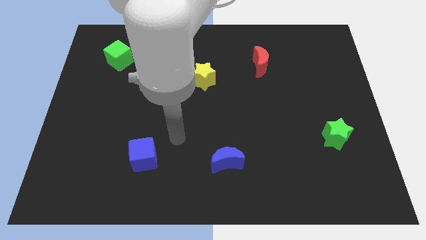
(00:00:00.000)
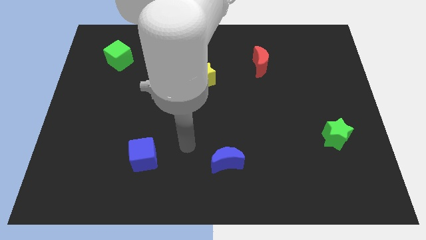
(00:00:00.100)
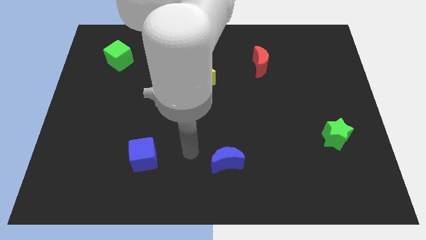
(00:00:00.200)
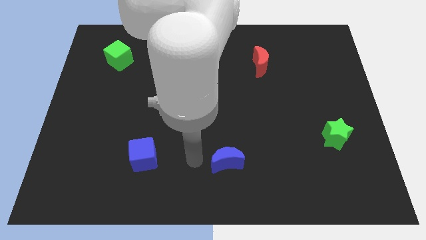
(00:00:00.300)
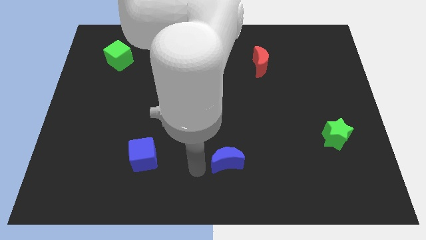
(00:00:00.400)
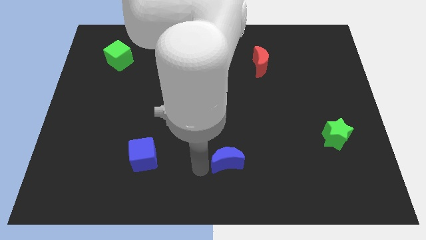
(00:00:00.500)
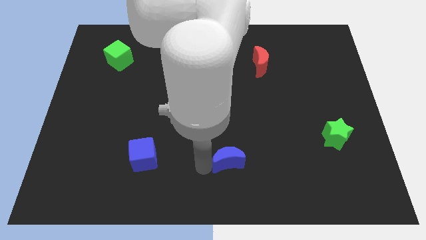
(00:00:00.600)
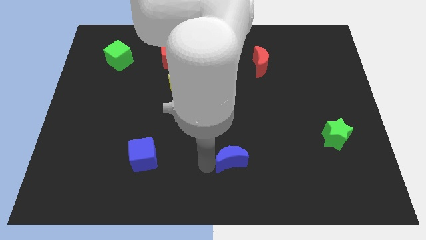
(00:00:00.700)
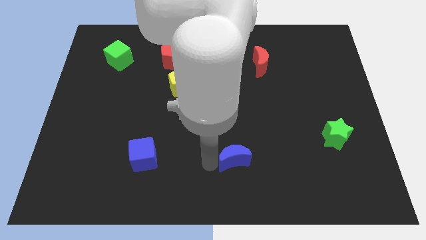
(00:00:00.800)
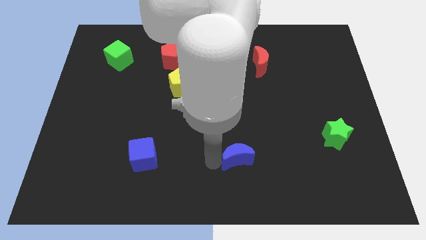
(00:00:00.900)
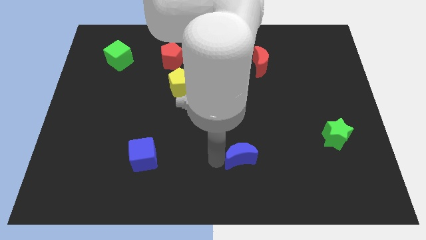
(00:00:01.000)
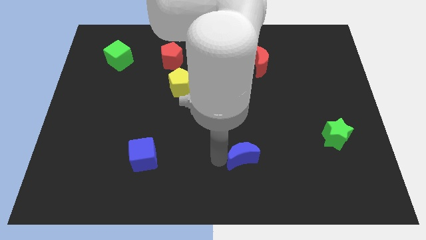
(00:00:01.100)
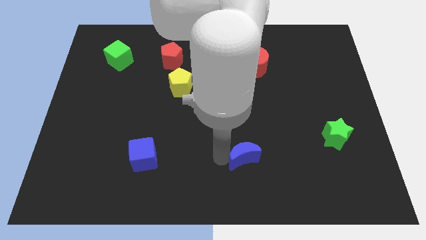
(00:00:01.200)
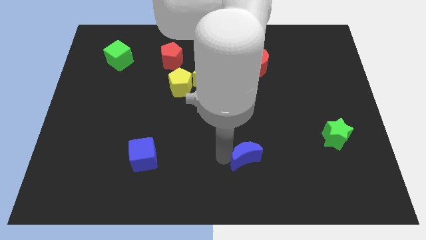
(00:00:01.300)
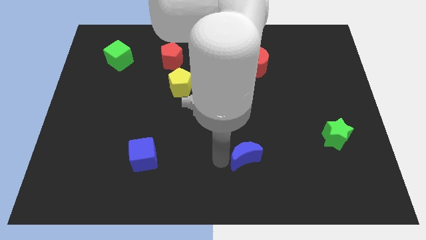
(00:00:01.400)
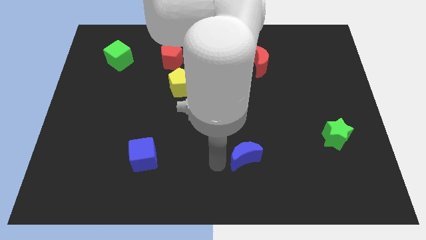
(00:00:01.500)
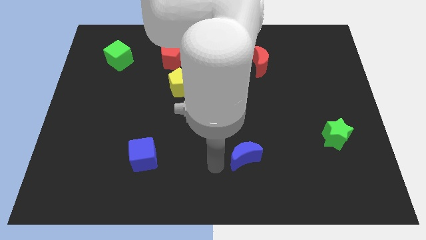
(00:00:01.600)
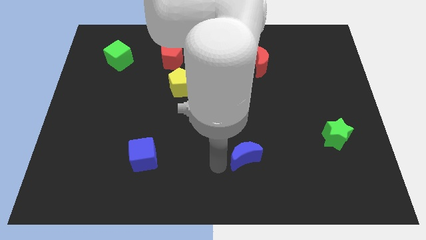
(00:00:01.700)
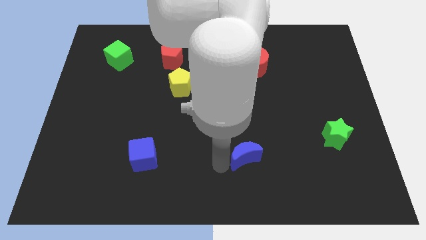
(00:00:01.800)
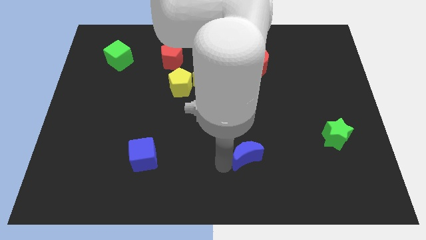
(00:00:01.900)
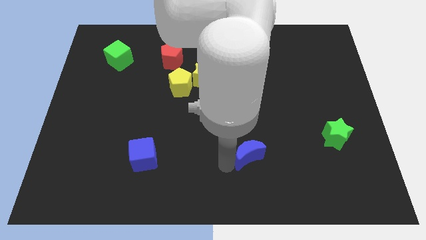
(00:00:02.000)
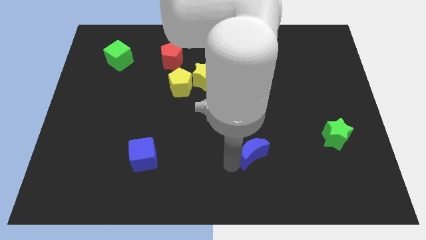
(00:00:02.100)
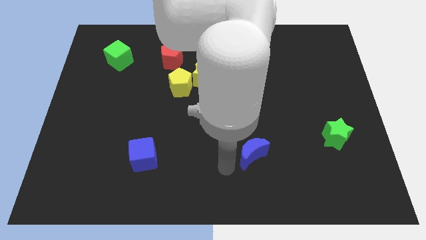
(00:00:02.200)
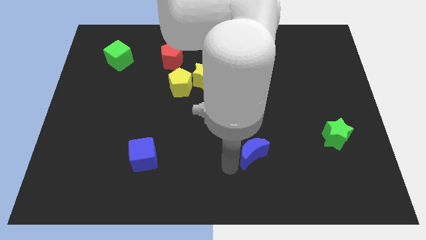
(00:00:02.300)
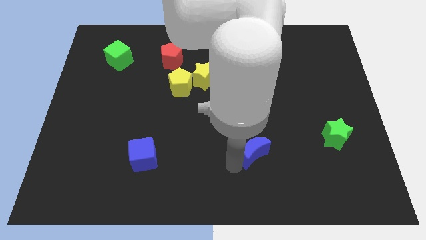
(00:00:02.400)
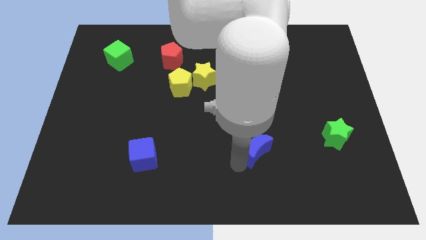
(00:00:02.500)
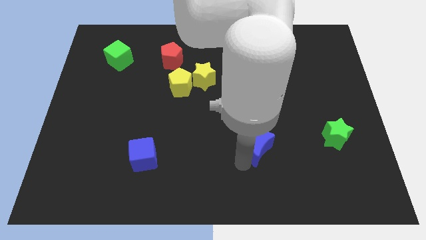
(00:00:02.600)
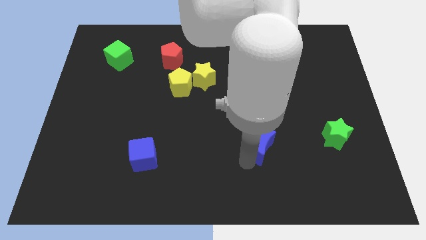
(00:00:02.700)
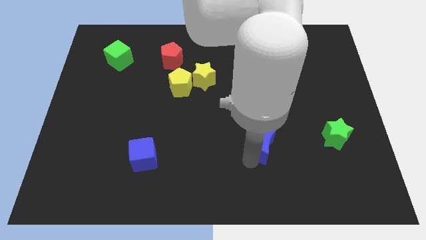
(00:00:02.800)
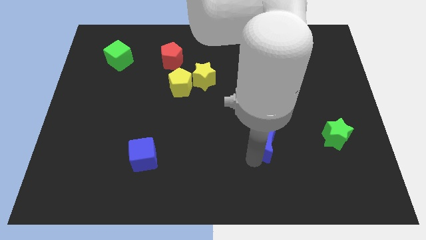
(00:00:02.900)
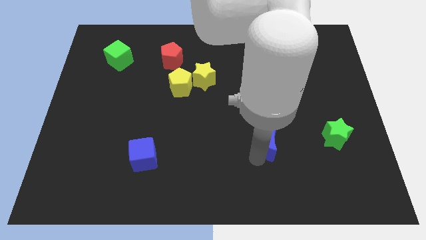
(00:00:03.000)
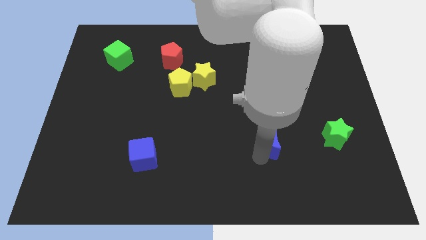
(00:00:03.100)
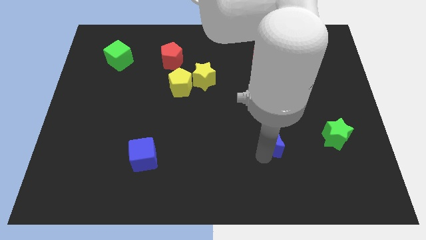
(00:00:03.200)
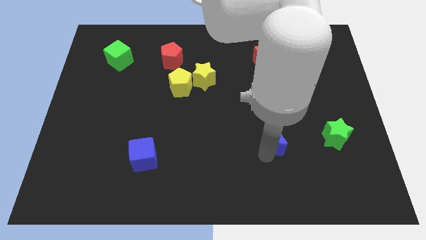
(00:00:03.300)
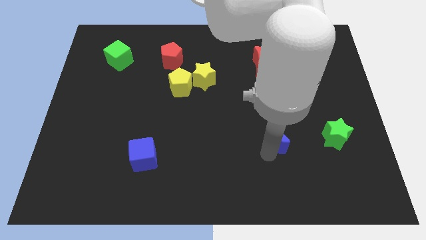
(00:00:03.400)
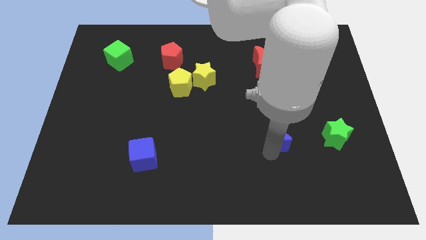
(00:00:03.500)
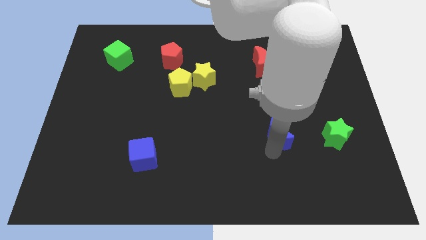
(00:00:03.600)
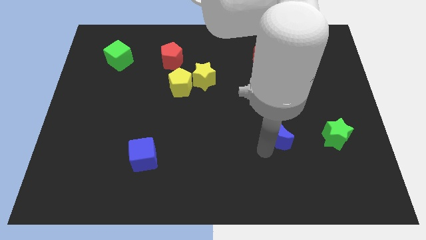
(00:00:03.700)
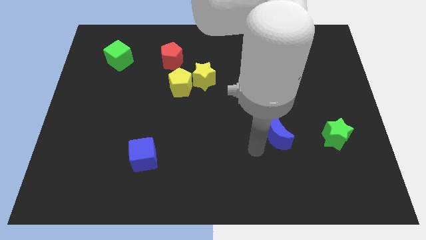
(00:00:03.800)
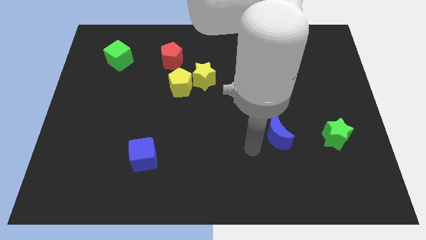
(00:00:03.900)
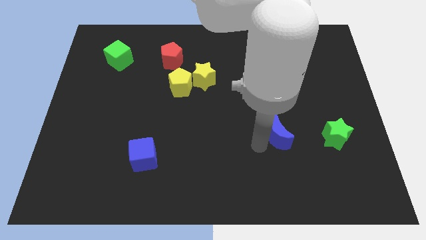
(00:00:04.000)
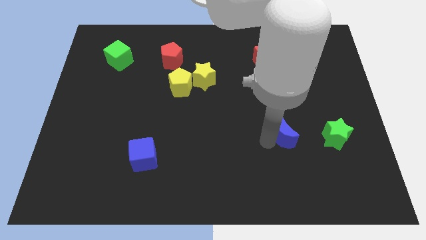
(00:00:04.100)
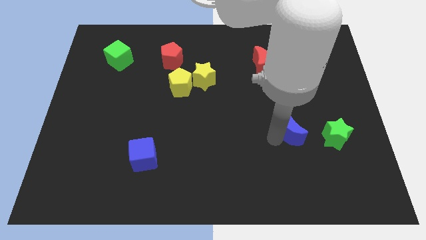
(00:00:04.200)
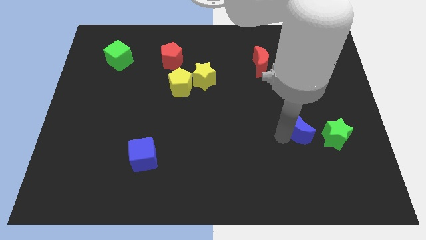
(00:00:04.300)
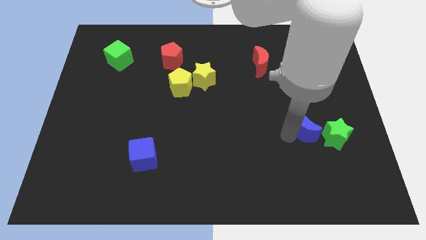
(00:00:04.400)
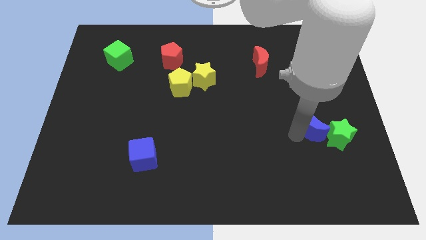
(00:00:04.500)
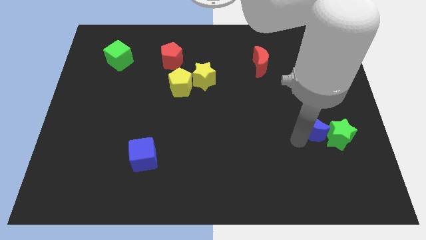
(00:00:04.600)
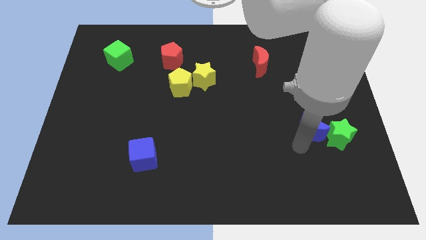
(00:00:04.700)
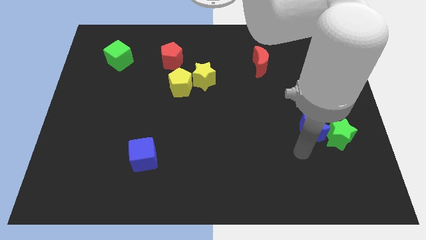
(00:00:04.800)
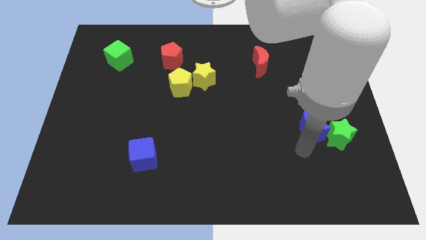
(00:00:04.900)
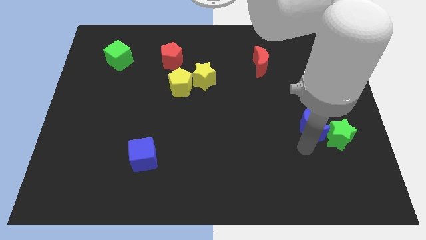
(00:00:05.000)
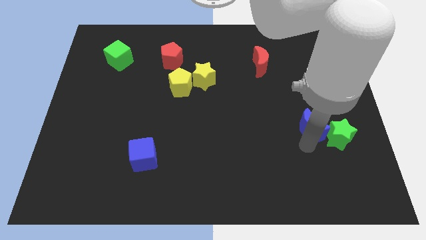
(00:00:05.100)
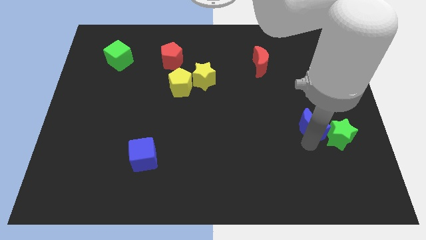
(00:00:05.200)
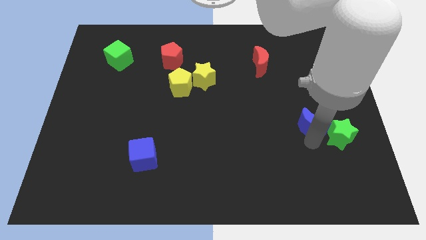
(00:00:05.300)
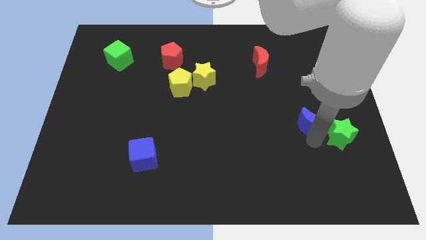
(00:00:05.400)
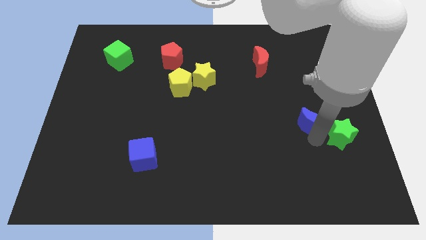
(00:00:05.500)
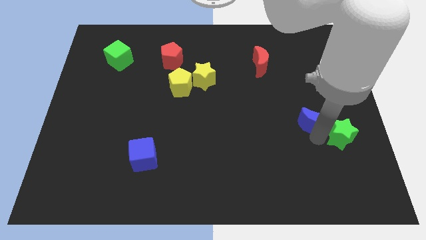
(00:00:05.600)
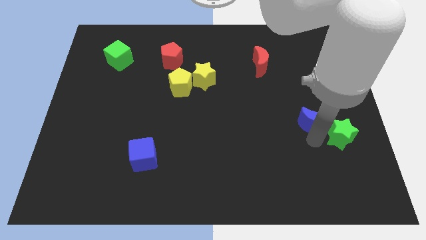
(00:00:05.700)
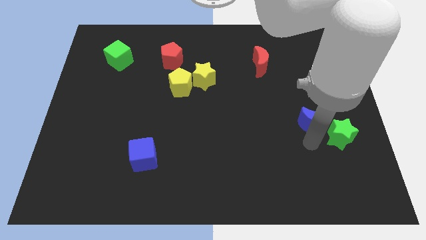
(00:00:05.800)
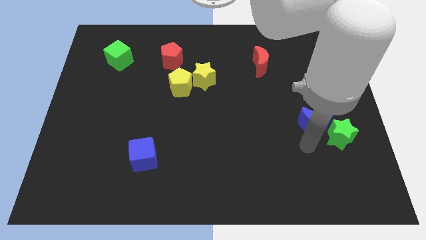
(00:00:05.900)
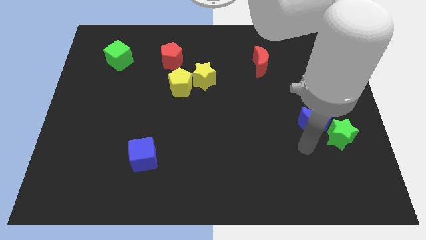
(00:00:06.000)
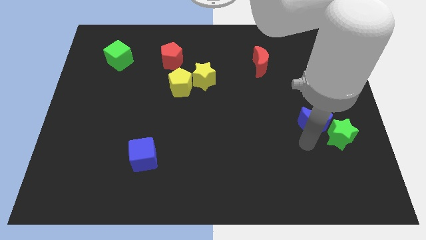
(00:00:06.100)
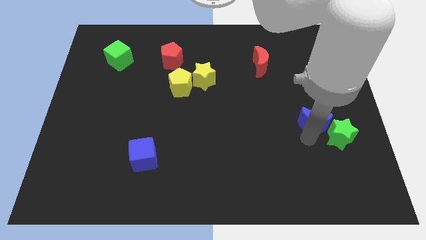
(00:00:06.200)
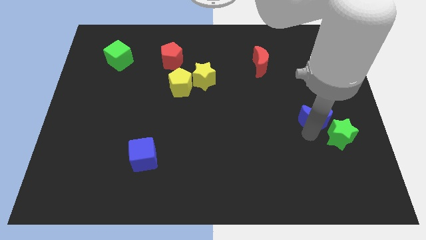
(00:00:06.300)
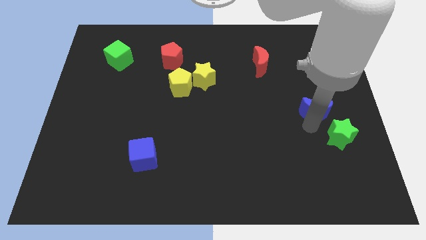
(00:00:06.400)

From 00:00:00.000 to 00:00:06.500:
push the blue moon above the green star

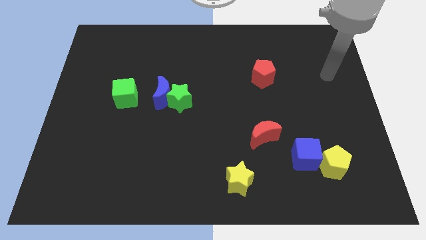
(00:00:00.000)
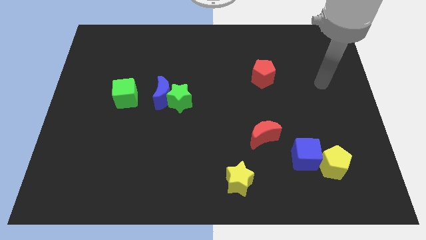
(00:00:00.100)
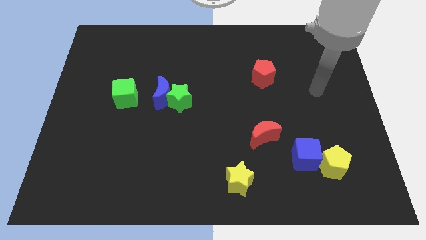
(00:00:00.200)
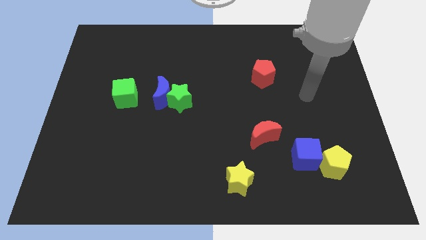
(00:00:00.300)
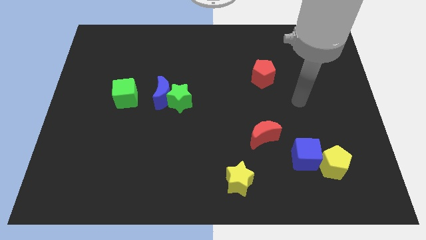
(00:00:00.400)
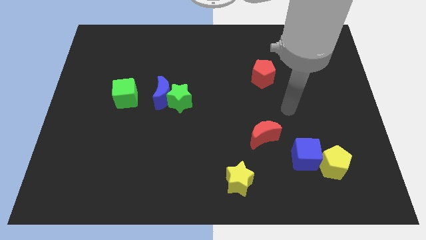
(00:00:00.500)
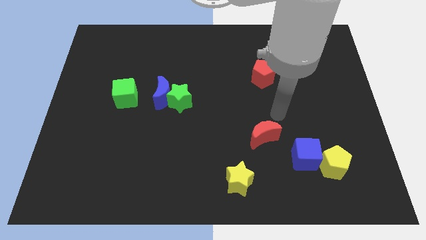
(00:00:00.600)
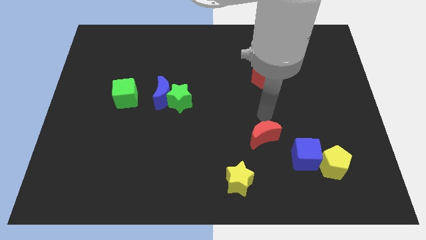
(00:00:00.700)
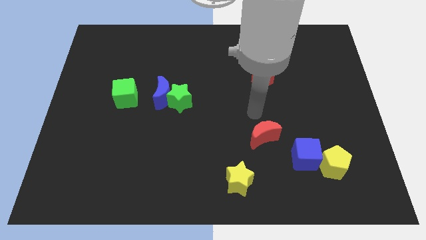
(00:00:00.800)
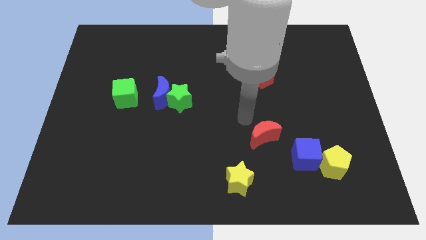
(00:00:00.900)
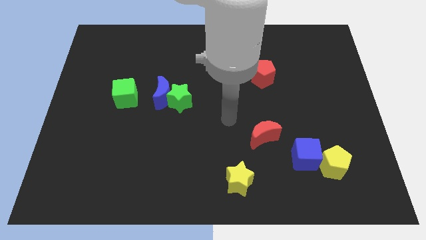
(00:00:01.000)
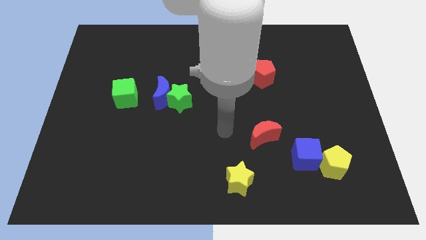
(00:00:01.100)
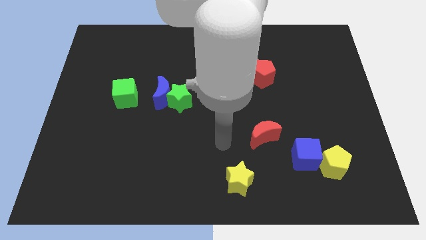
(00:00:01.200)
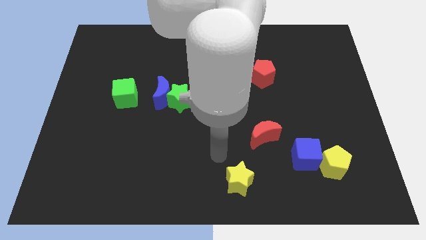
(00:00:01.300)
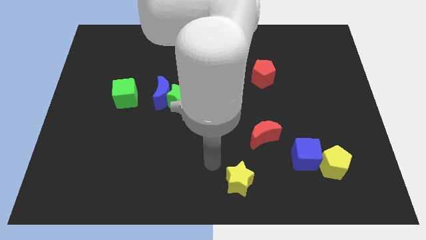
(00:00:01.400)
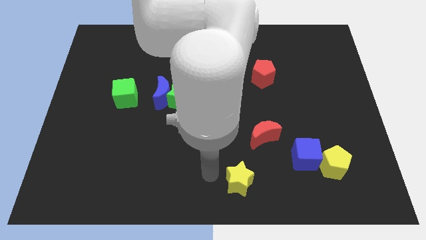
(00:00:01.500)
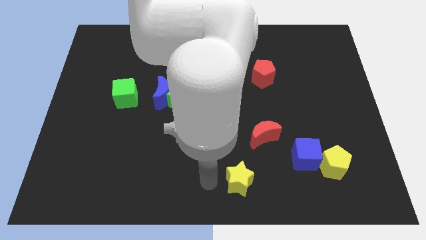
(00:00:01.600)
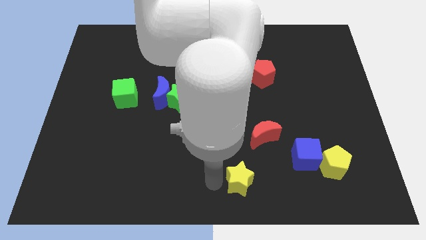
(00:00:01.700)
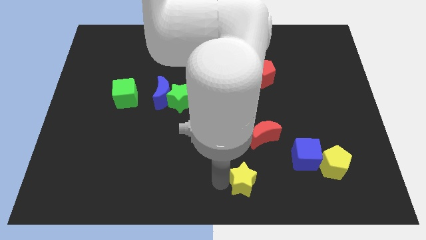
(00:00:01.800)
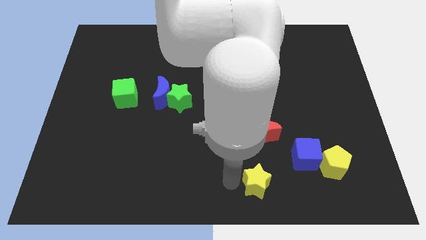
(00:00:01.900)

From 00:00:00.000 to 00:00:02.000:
move the yellow star to the bottom left side of the blue cube
